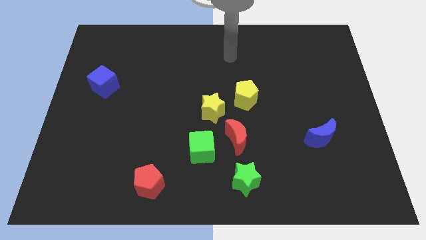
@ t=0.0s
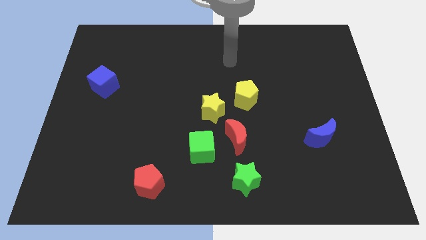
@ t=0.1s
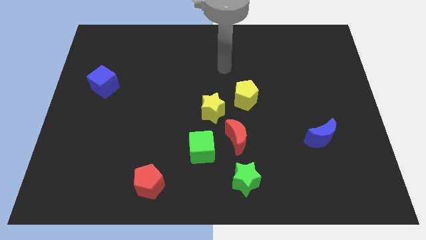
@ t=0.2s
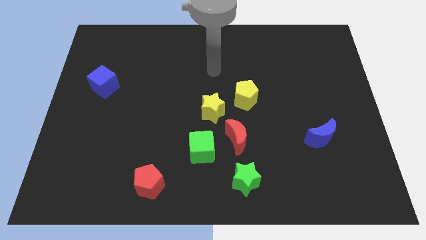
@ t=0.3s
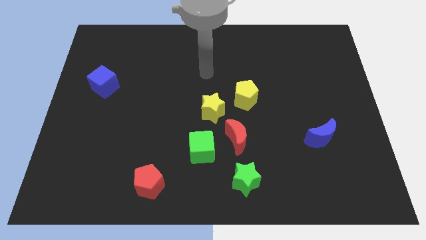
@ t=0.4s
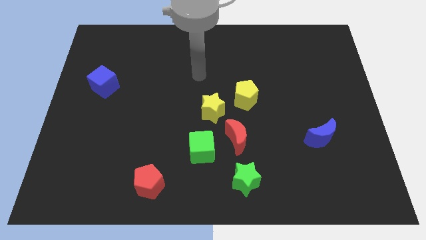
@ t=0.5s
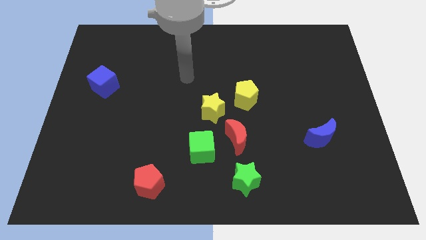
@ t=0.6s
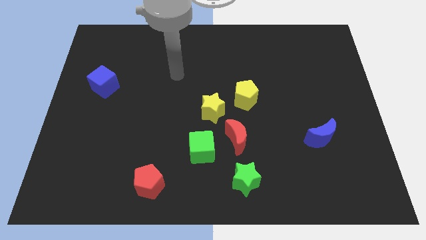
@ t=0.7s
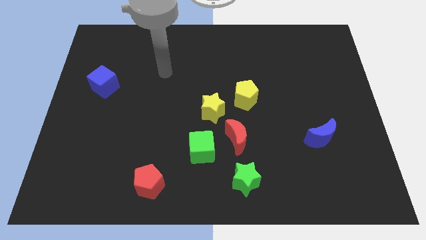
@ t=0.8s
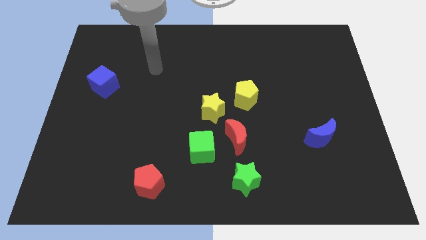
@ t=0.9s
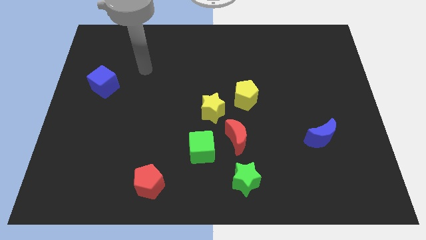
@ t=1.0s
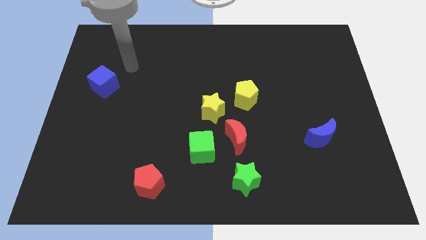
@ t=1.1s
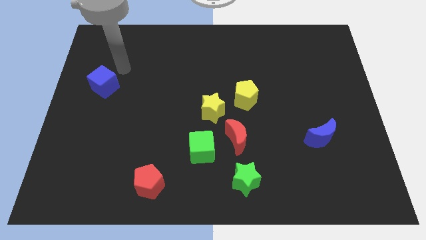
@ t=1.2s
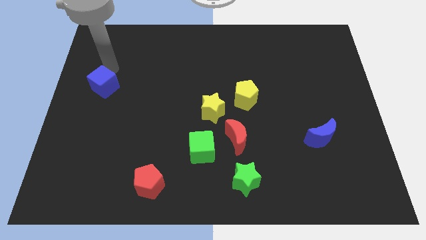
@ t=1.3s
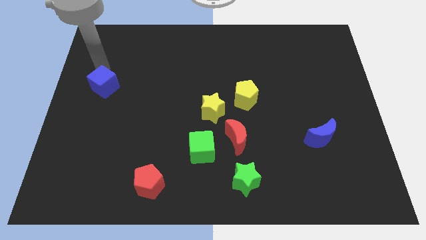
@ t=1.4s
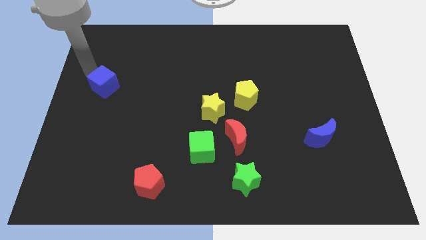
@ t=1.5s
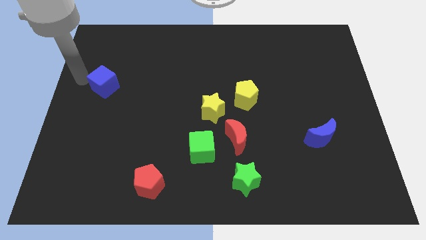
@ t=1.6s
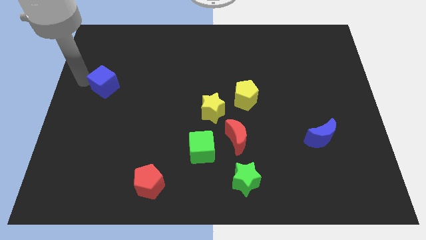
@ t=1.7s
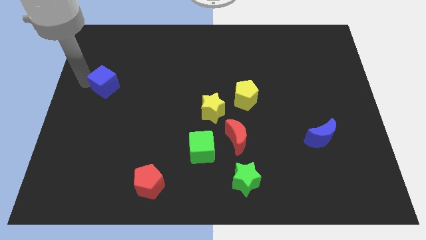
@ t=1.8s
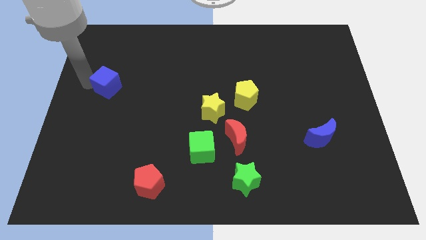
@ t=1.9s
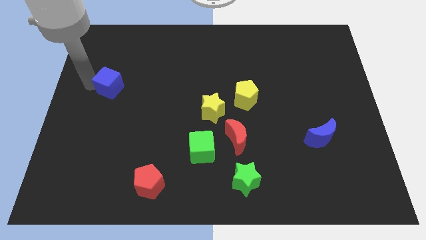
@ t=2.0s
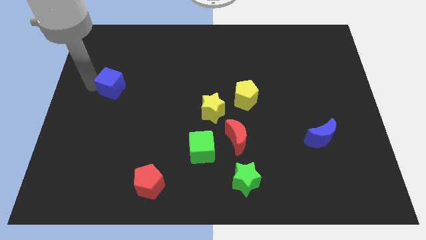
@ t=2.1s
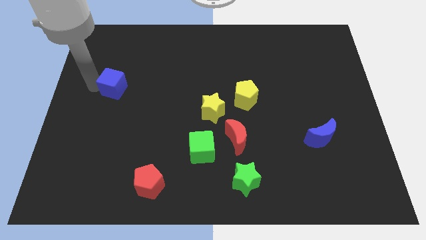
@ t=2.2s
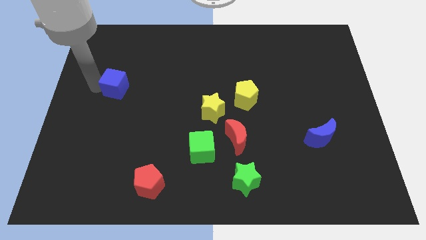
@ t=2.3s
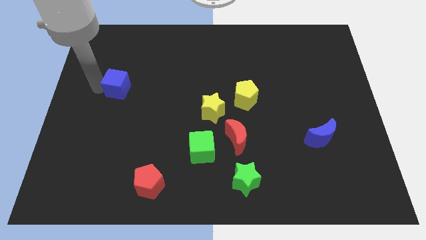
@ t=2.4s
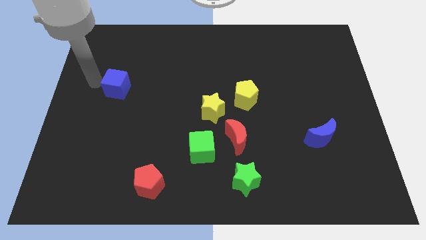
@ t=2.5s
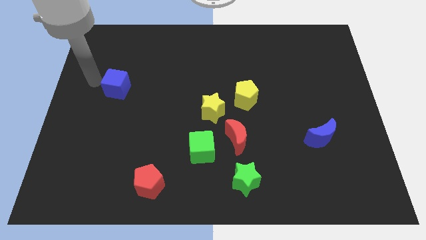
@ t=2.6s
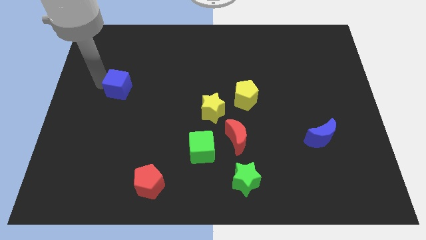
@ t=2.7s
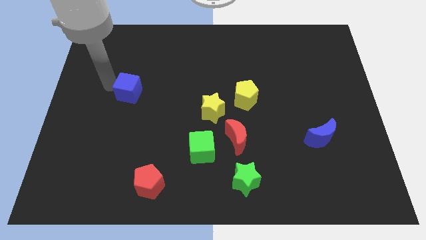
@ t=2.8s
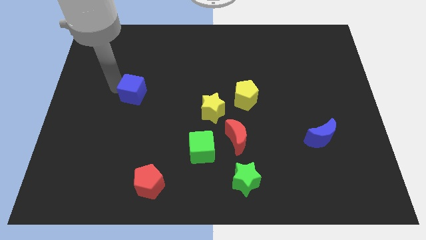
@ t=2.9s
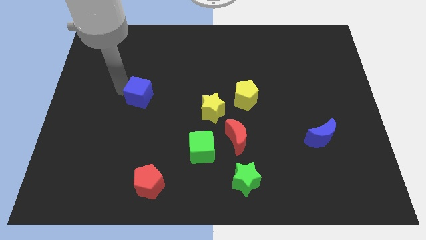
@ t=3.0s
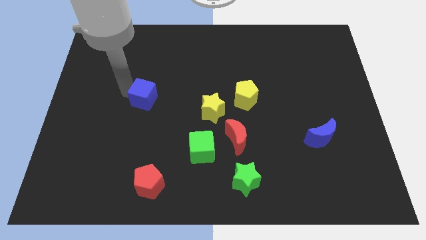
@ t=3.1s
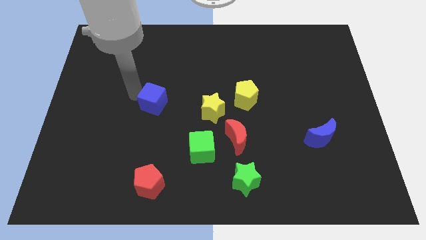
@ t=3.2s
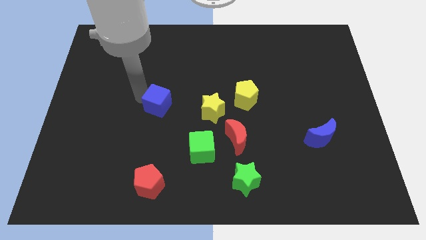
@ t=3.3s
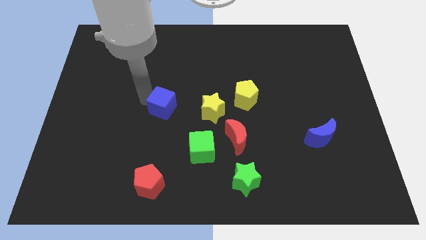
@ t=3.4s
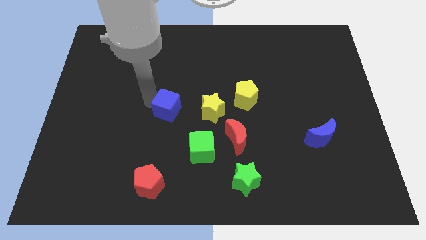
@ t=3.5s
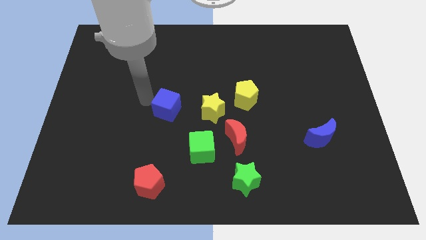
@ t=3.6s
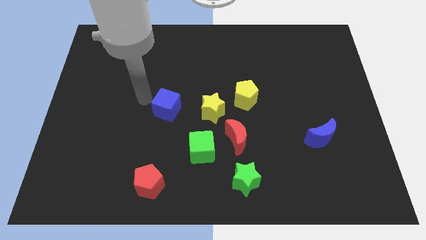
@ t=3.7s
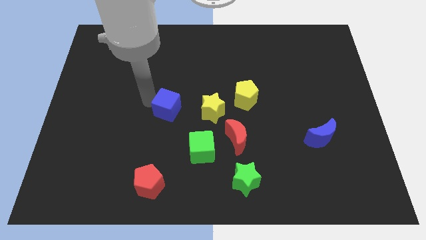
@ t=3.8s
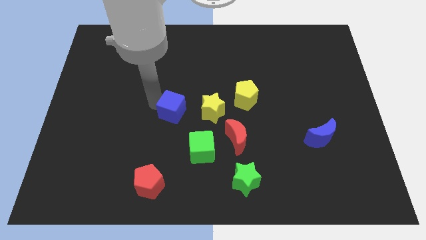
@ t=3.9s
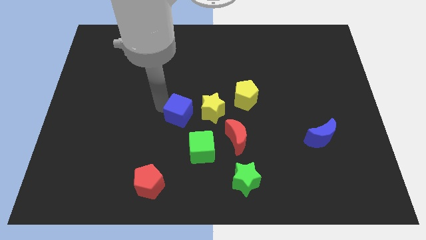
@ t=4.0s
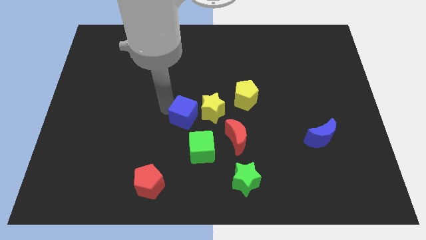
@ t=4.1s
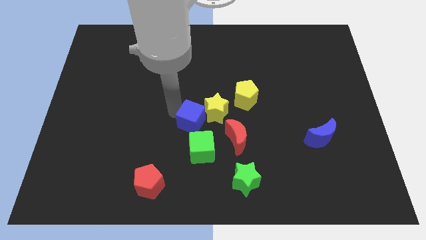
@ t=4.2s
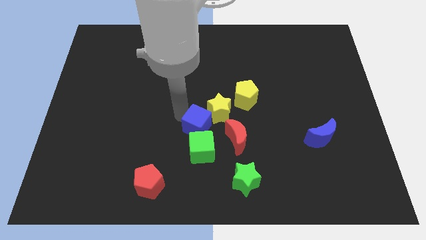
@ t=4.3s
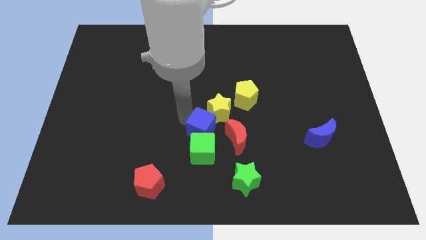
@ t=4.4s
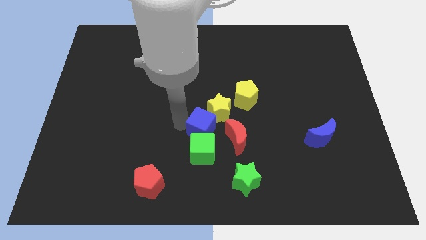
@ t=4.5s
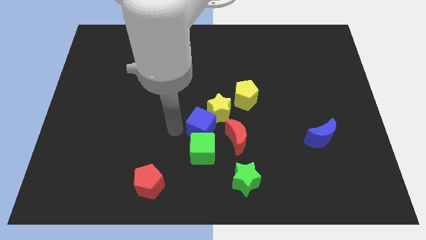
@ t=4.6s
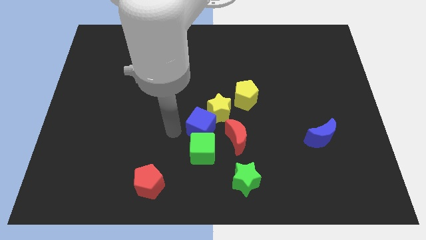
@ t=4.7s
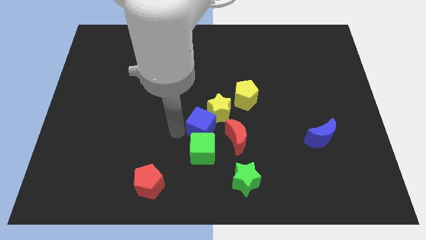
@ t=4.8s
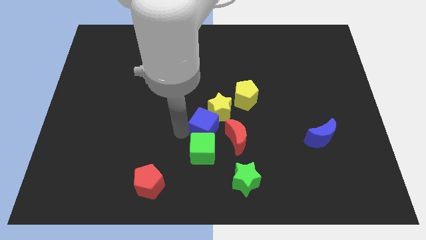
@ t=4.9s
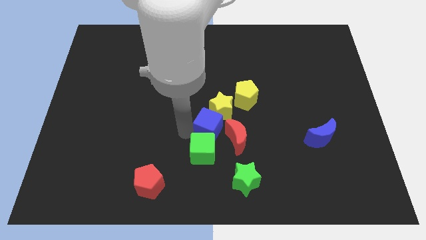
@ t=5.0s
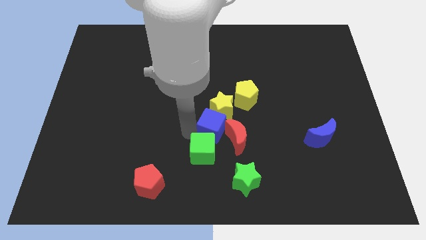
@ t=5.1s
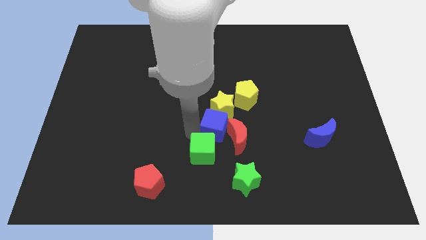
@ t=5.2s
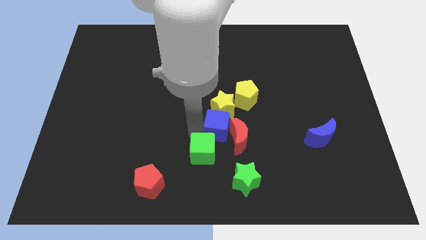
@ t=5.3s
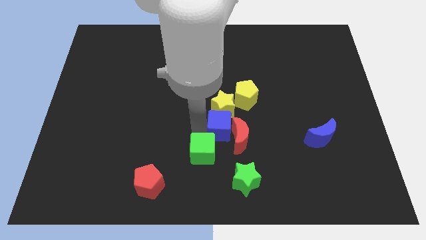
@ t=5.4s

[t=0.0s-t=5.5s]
move the blue cube above the green star

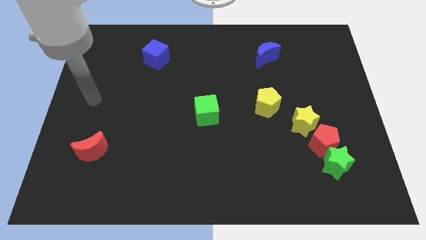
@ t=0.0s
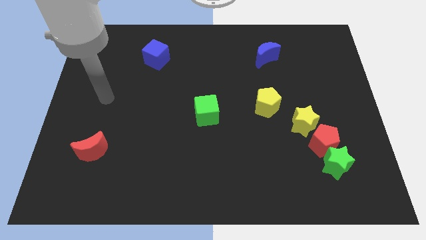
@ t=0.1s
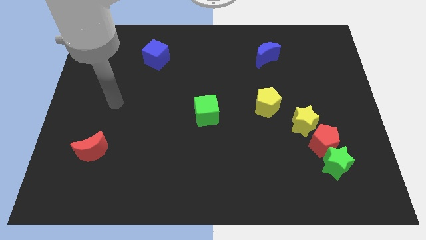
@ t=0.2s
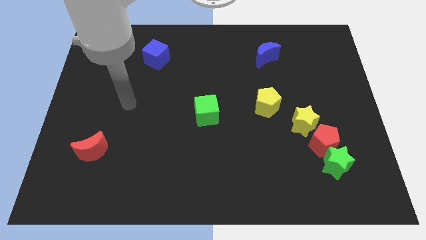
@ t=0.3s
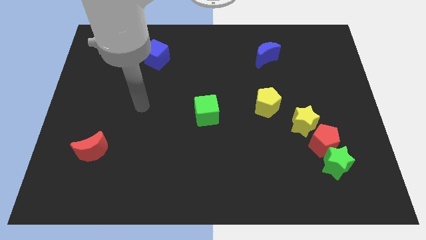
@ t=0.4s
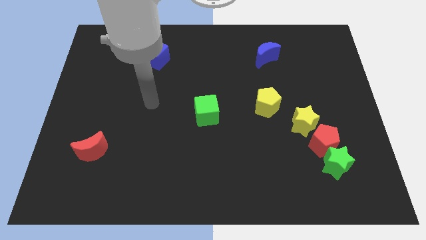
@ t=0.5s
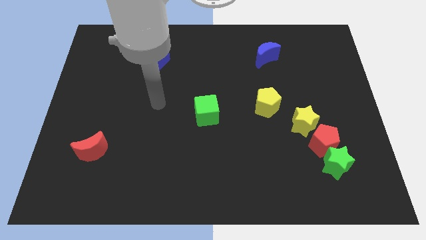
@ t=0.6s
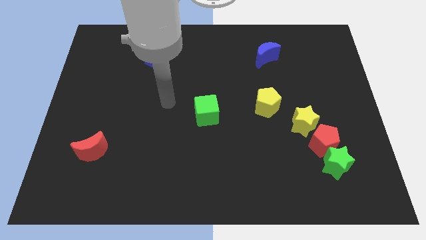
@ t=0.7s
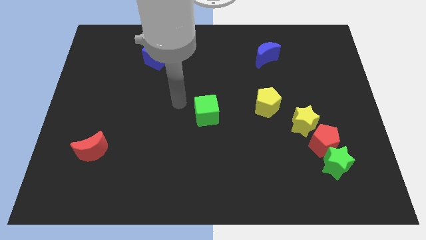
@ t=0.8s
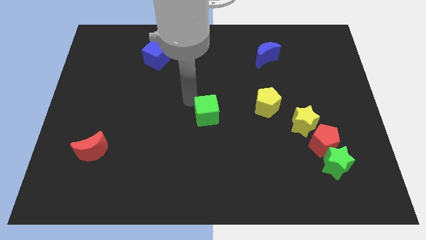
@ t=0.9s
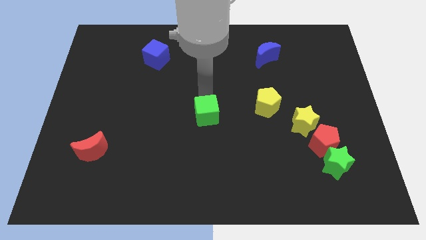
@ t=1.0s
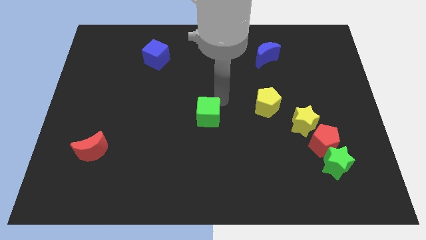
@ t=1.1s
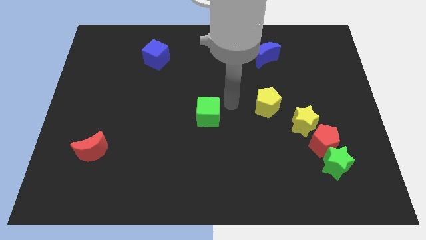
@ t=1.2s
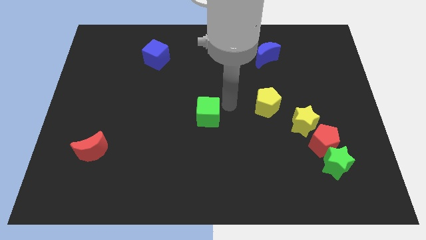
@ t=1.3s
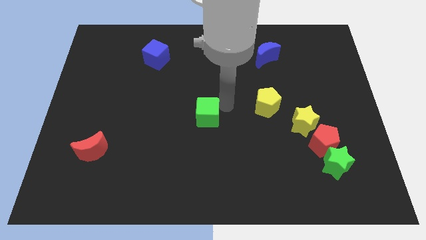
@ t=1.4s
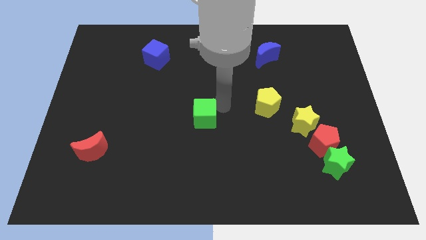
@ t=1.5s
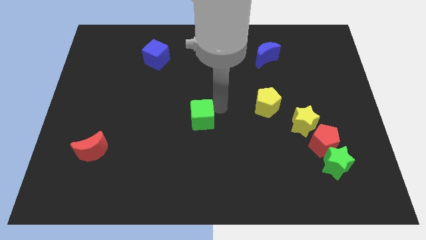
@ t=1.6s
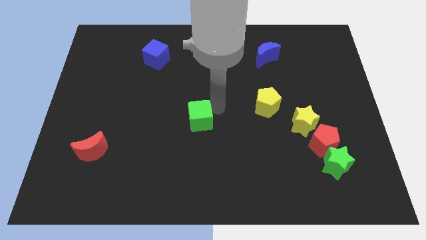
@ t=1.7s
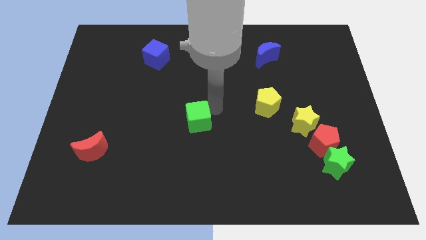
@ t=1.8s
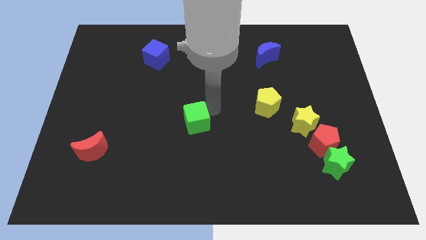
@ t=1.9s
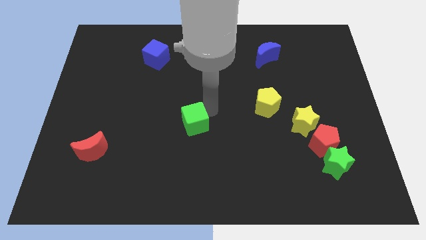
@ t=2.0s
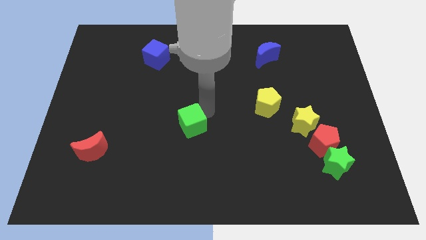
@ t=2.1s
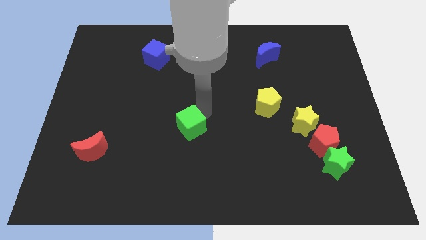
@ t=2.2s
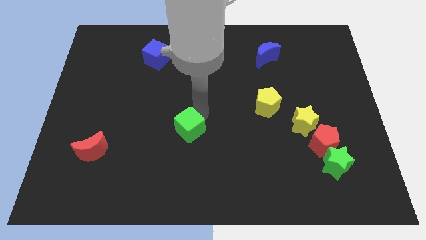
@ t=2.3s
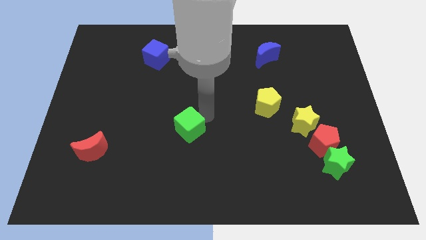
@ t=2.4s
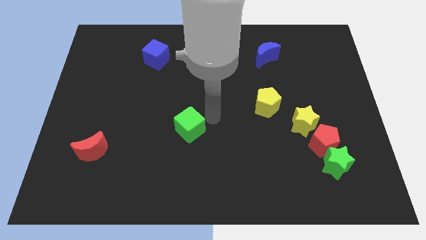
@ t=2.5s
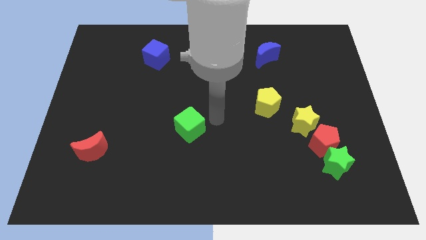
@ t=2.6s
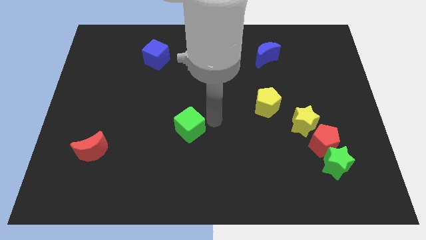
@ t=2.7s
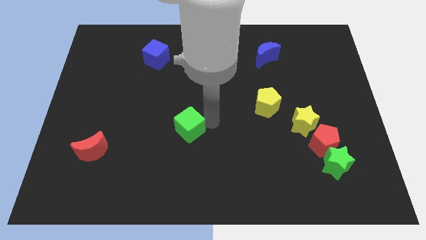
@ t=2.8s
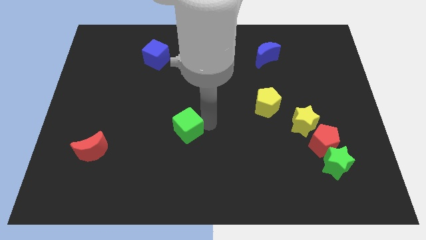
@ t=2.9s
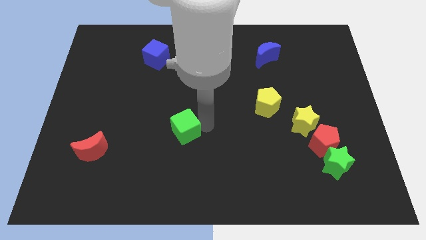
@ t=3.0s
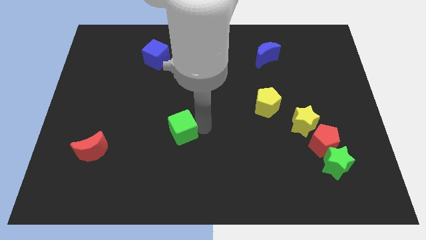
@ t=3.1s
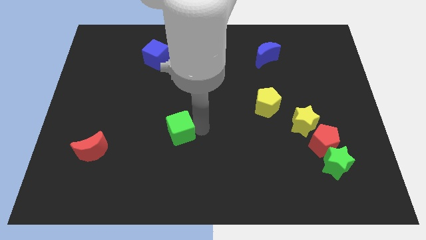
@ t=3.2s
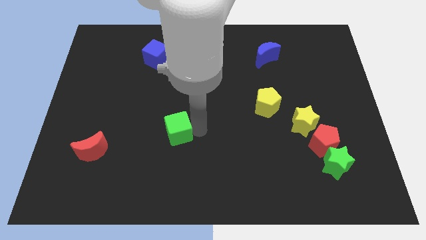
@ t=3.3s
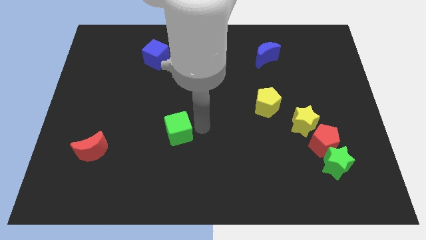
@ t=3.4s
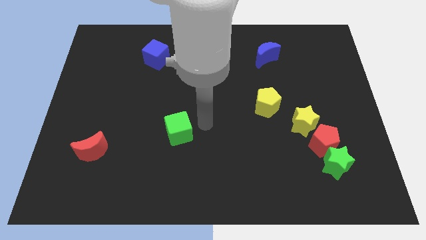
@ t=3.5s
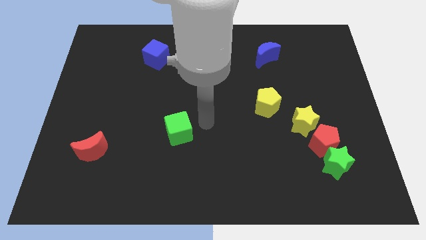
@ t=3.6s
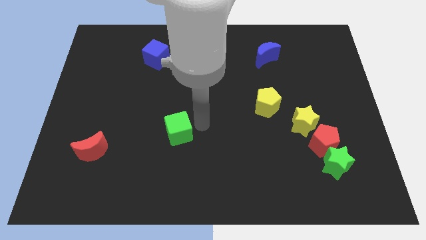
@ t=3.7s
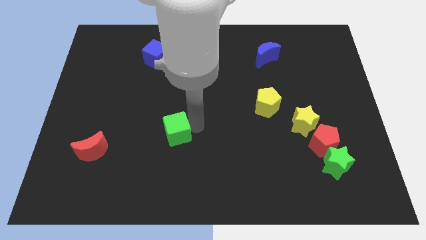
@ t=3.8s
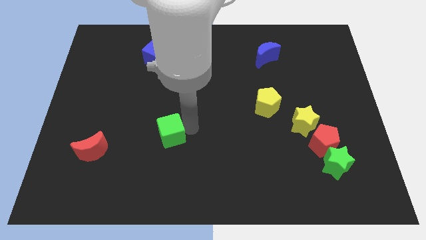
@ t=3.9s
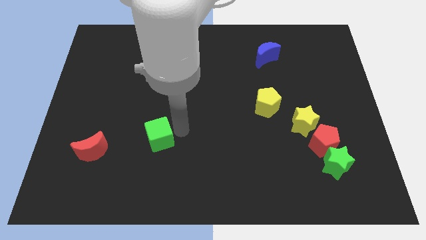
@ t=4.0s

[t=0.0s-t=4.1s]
move the green cube just right of the red moon
